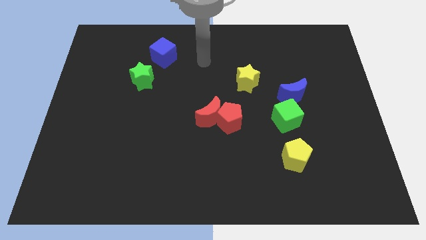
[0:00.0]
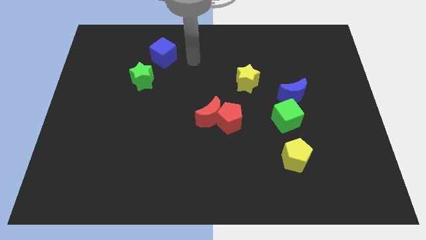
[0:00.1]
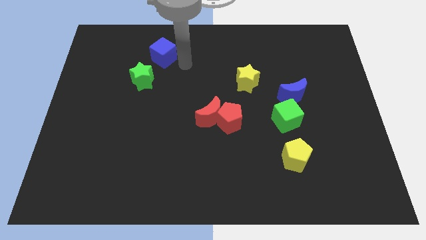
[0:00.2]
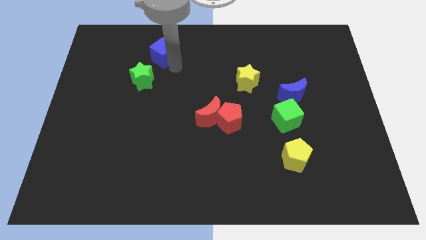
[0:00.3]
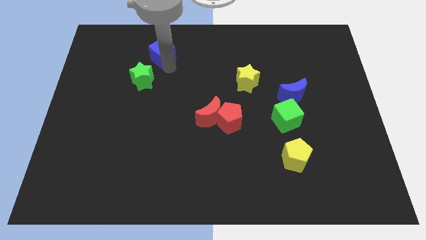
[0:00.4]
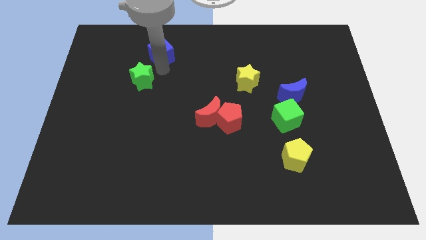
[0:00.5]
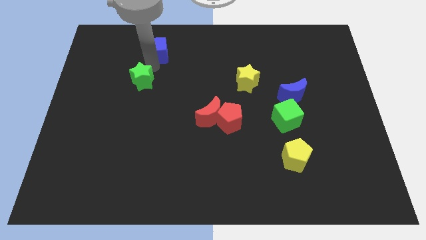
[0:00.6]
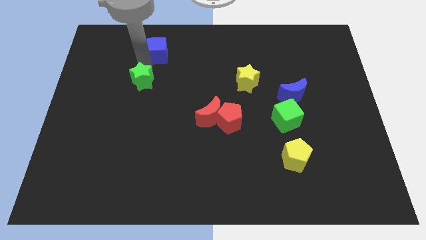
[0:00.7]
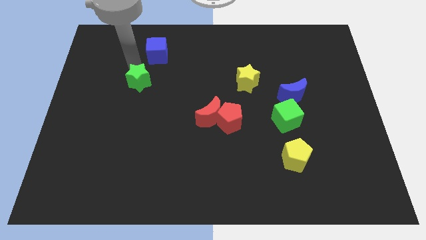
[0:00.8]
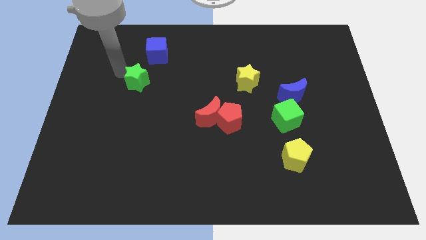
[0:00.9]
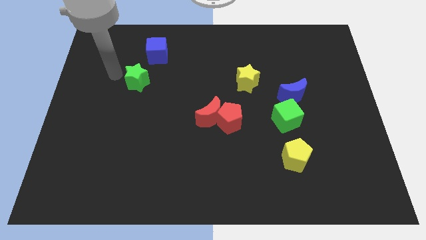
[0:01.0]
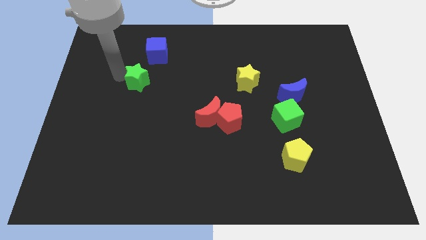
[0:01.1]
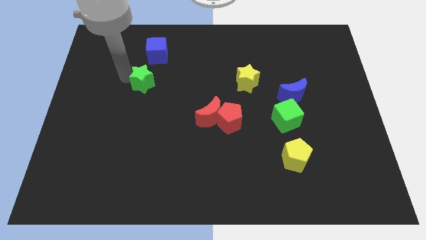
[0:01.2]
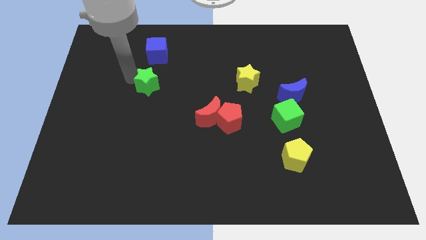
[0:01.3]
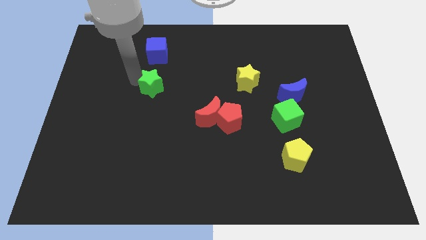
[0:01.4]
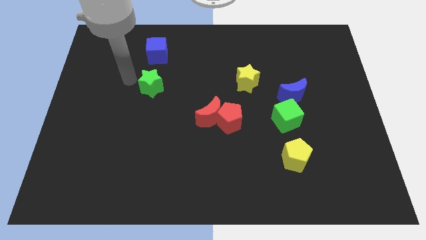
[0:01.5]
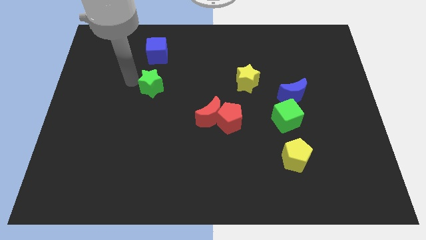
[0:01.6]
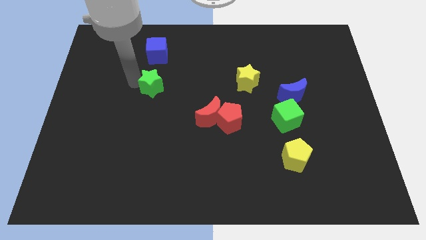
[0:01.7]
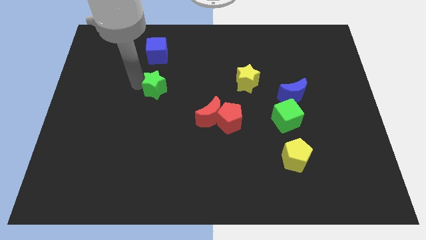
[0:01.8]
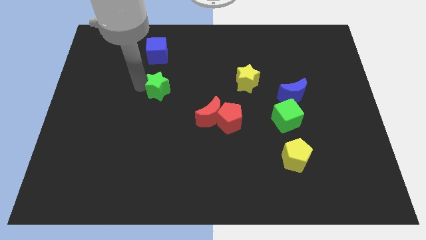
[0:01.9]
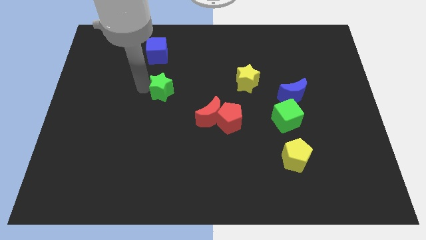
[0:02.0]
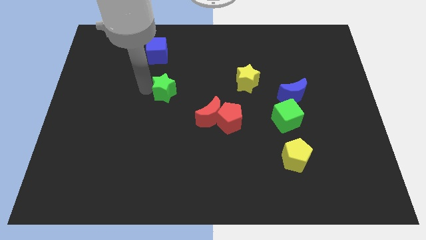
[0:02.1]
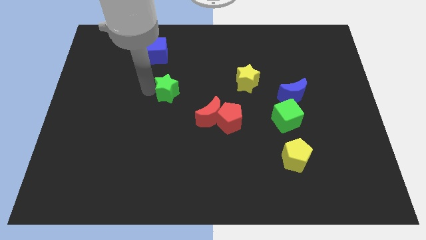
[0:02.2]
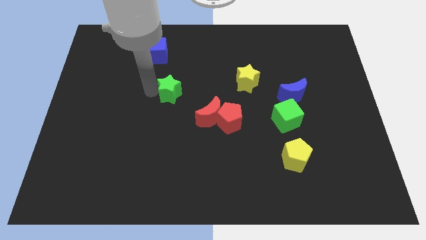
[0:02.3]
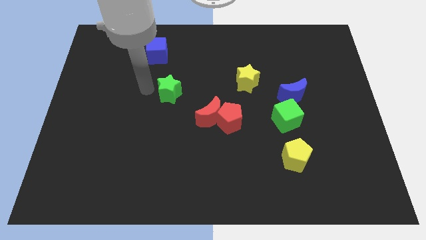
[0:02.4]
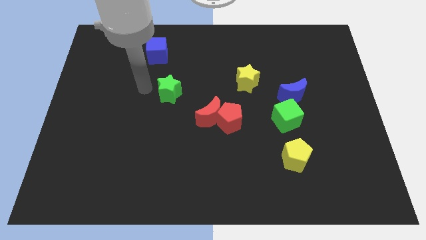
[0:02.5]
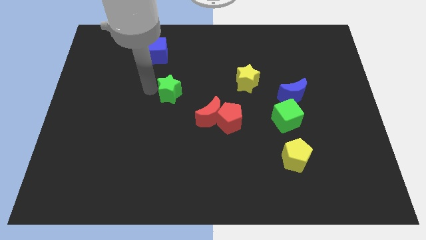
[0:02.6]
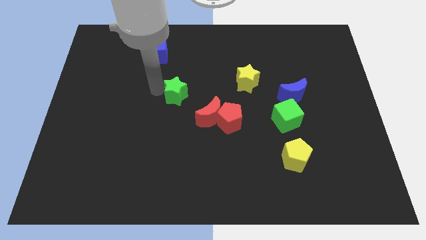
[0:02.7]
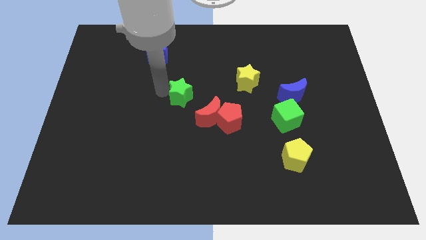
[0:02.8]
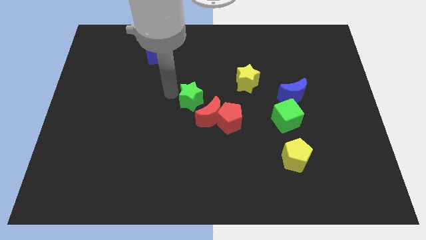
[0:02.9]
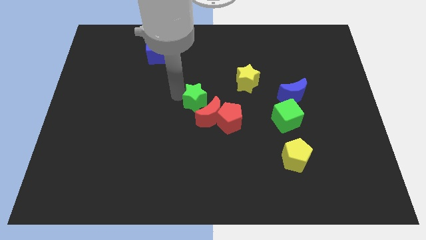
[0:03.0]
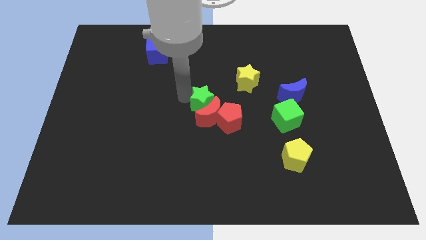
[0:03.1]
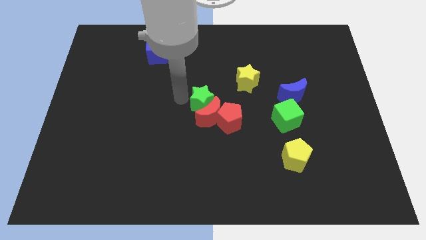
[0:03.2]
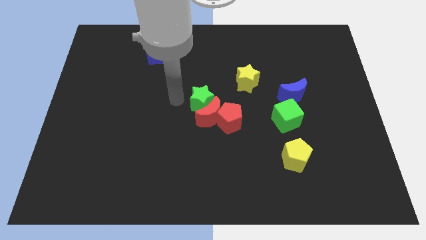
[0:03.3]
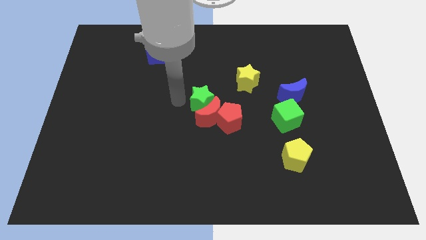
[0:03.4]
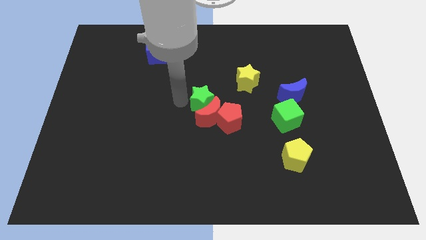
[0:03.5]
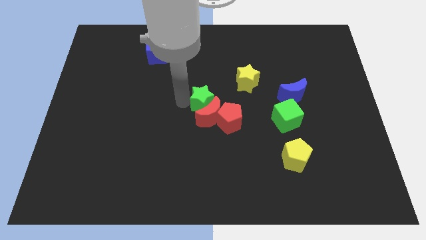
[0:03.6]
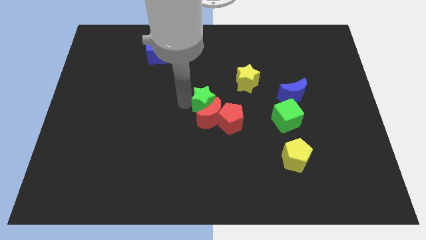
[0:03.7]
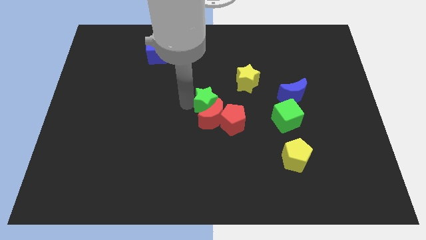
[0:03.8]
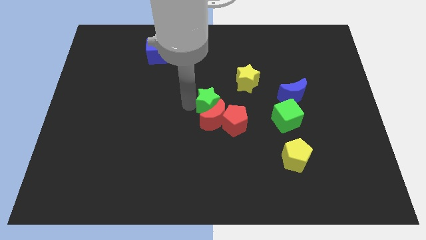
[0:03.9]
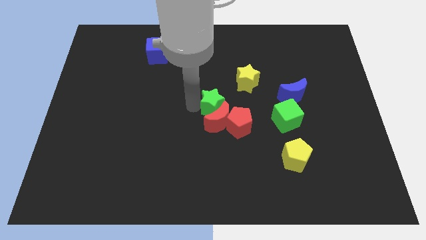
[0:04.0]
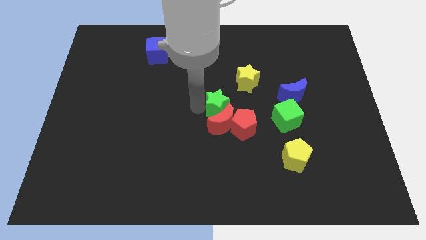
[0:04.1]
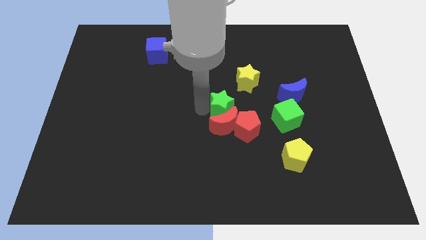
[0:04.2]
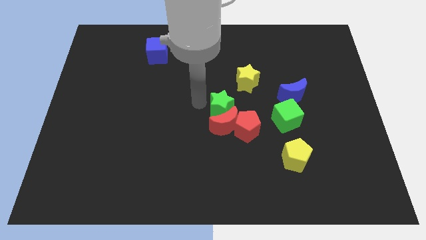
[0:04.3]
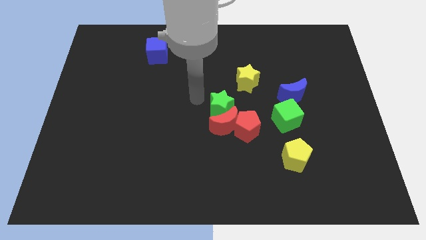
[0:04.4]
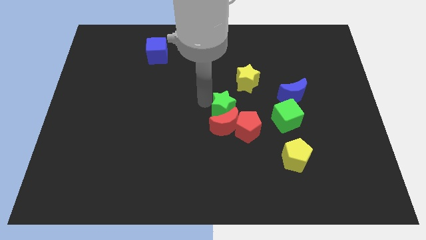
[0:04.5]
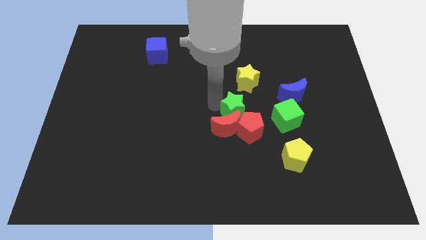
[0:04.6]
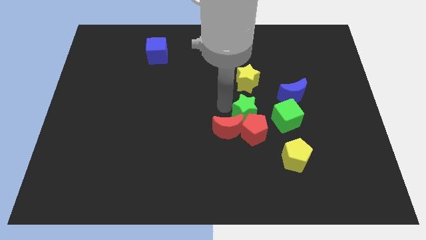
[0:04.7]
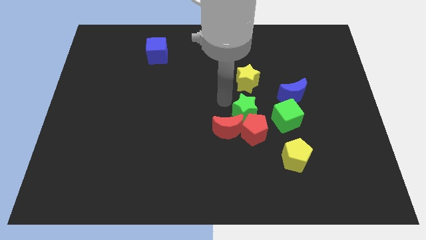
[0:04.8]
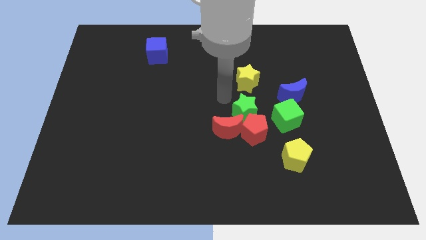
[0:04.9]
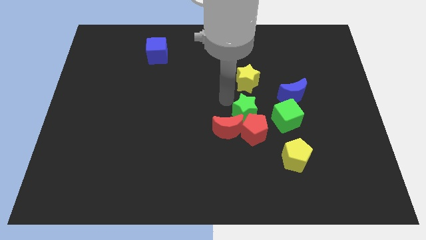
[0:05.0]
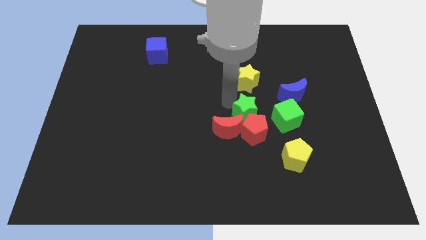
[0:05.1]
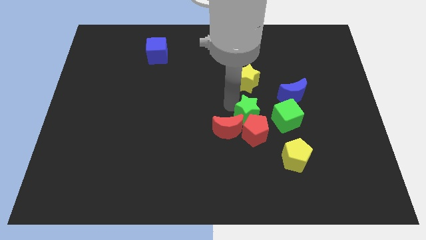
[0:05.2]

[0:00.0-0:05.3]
put the green star right of the red moon

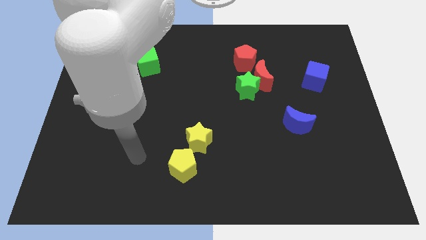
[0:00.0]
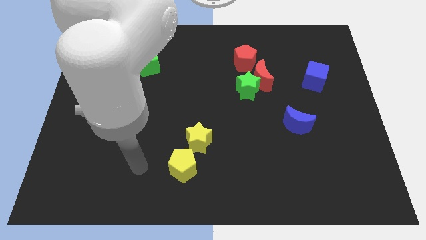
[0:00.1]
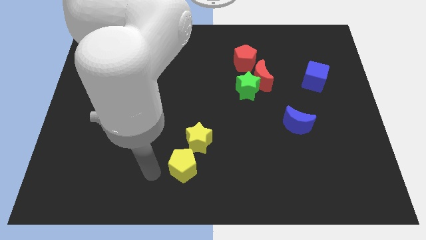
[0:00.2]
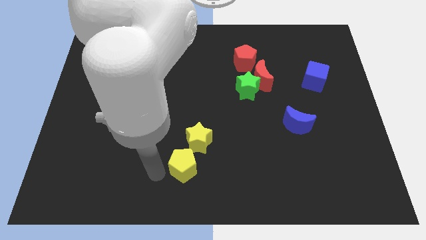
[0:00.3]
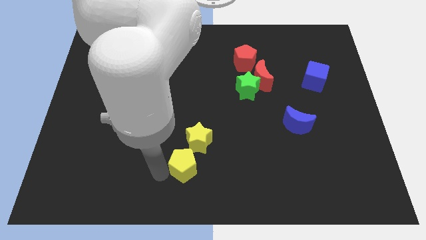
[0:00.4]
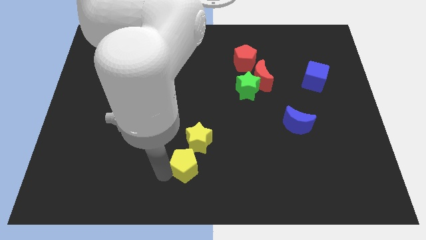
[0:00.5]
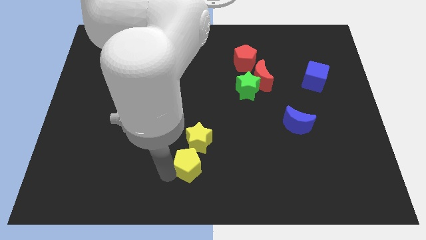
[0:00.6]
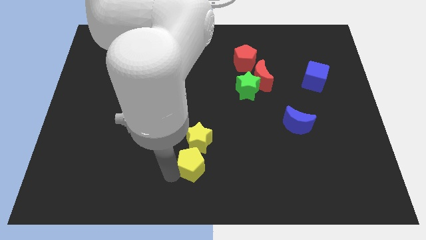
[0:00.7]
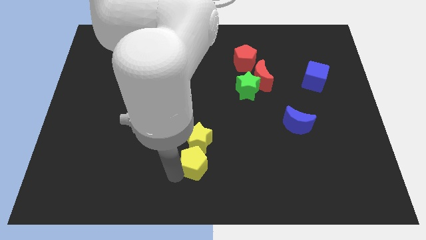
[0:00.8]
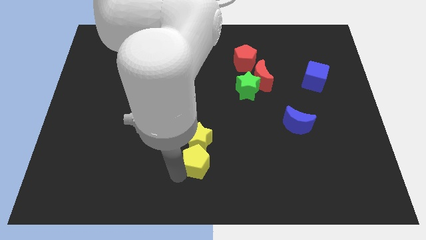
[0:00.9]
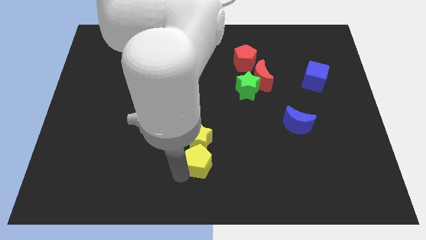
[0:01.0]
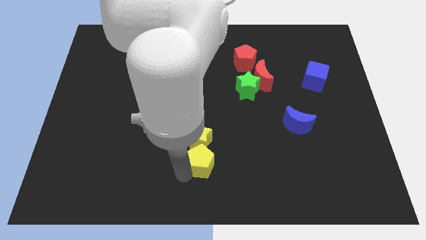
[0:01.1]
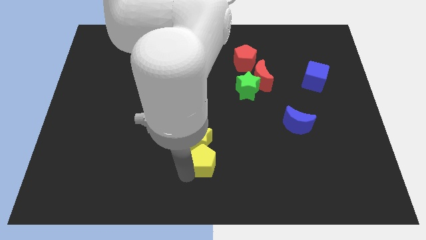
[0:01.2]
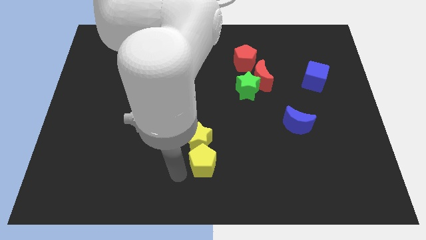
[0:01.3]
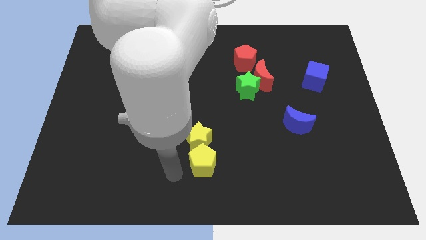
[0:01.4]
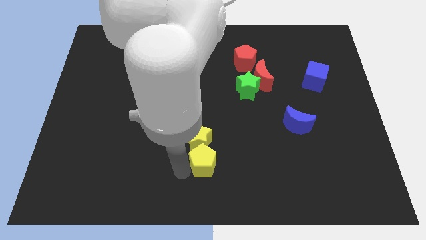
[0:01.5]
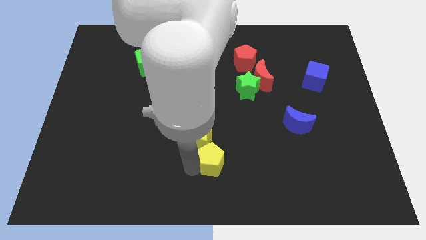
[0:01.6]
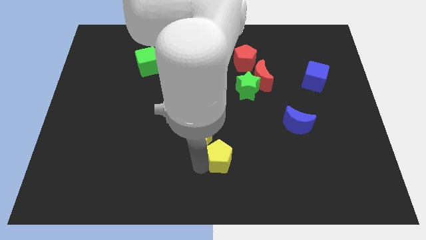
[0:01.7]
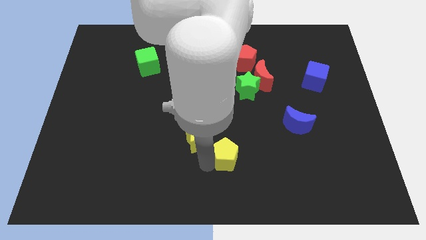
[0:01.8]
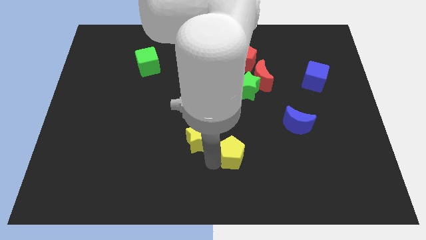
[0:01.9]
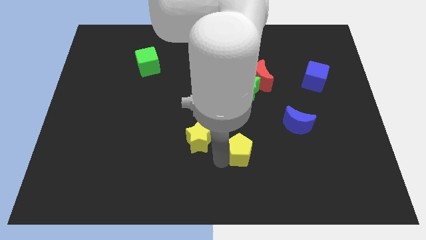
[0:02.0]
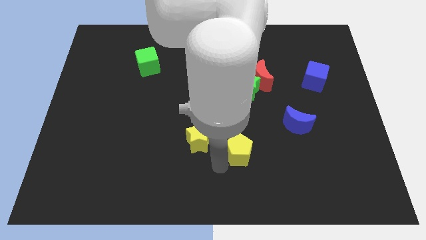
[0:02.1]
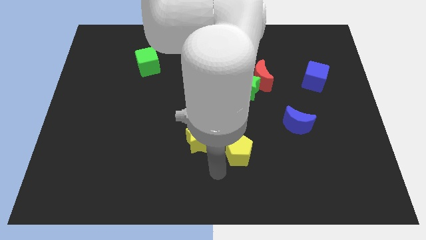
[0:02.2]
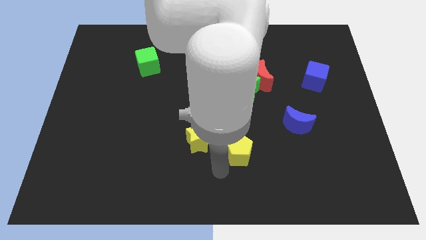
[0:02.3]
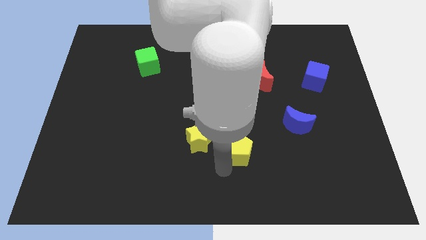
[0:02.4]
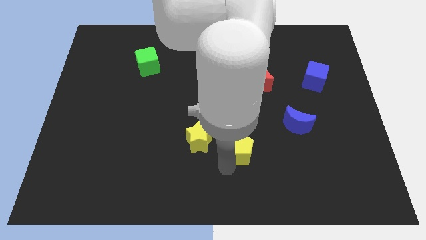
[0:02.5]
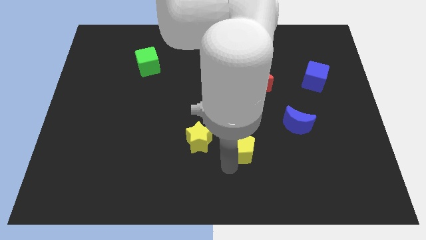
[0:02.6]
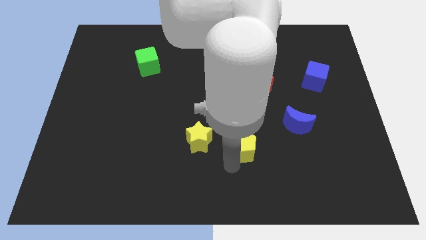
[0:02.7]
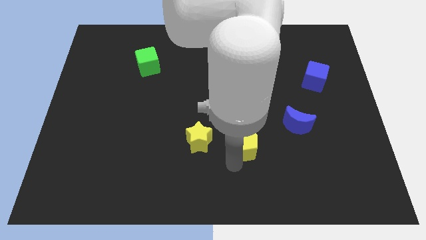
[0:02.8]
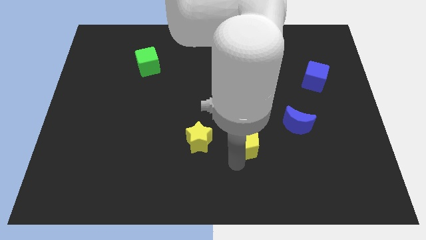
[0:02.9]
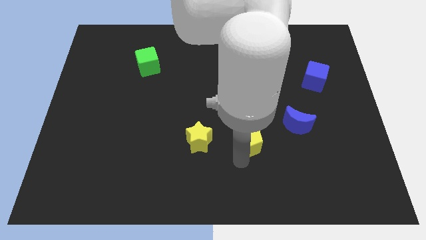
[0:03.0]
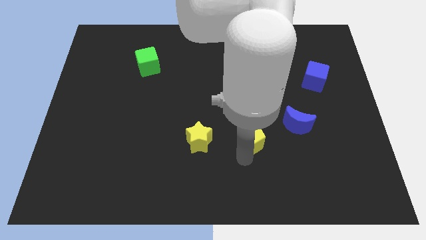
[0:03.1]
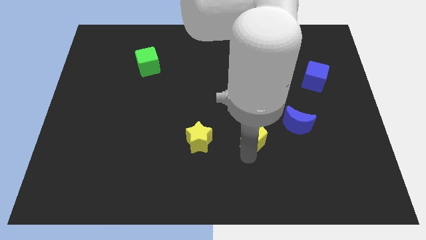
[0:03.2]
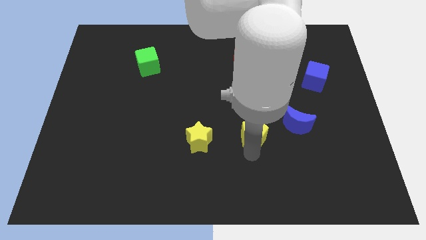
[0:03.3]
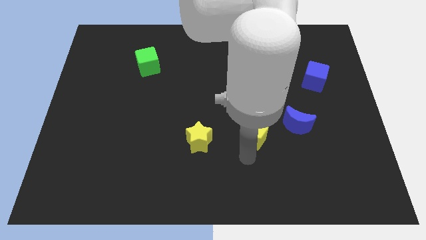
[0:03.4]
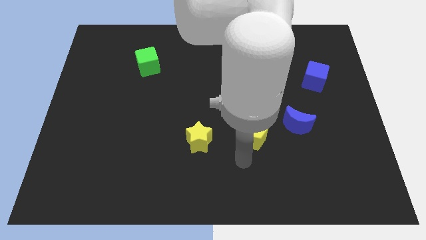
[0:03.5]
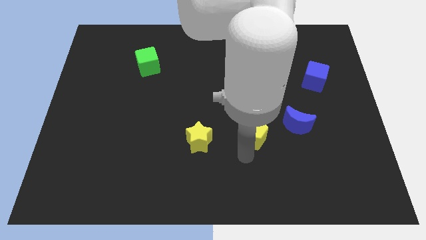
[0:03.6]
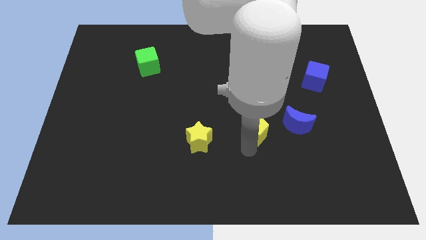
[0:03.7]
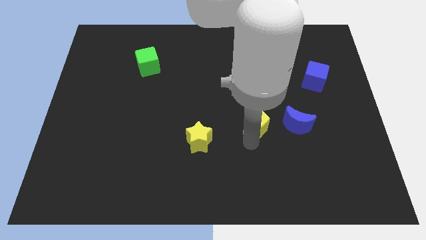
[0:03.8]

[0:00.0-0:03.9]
put the yellow pentagon below the red moon
